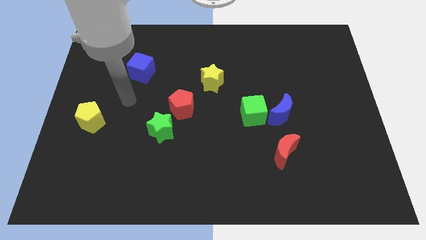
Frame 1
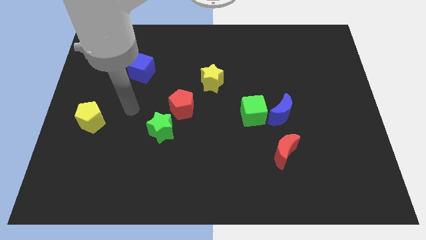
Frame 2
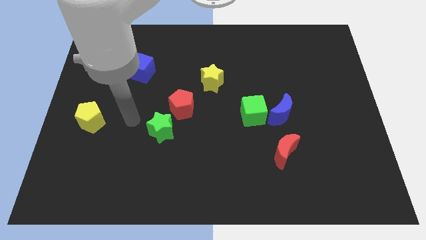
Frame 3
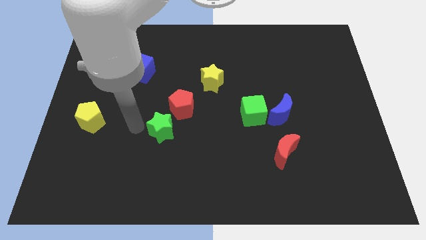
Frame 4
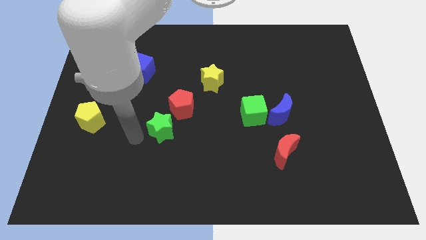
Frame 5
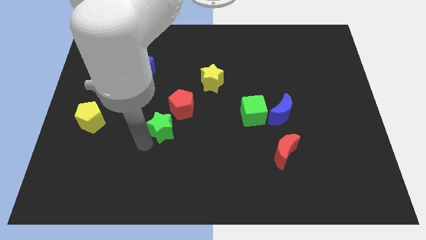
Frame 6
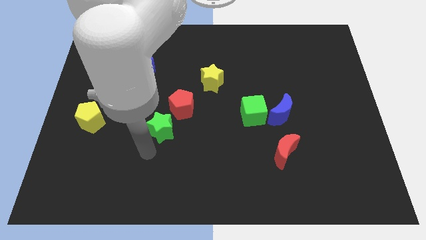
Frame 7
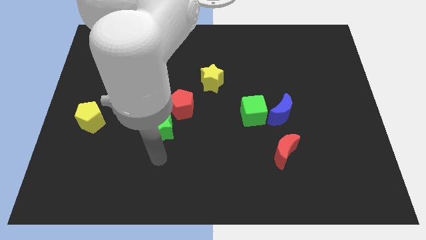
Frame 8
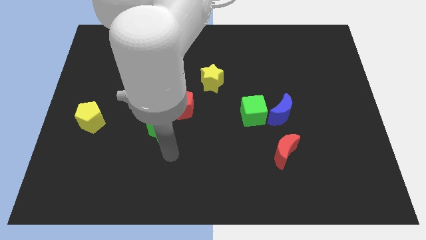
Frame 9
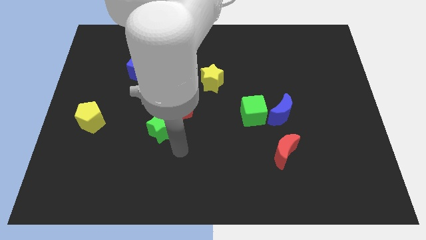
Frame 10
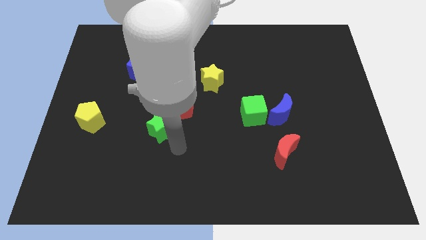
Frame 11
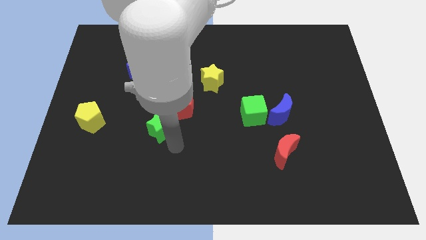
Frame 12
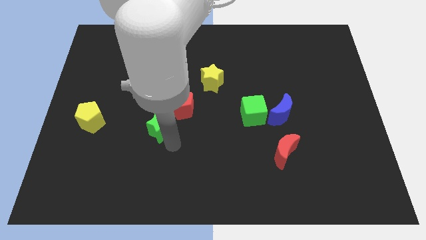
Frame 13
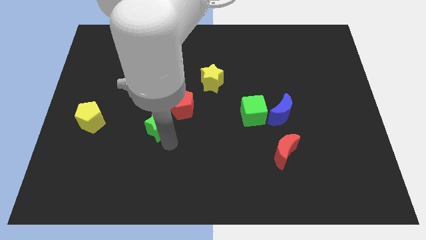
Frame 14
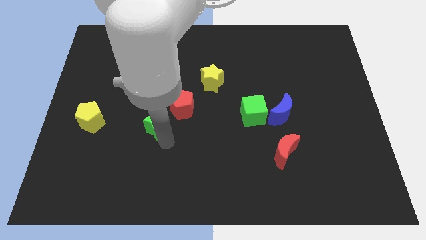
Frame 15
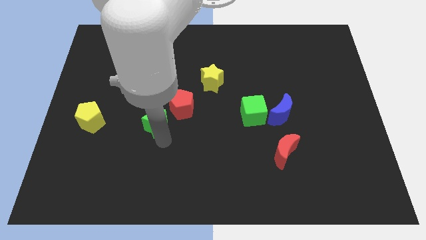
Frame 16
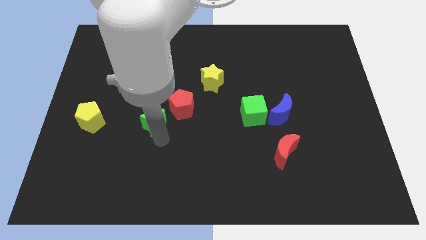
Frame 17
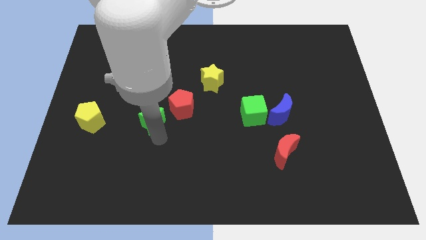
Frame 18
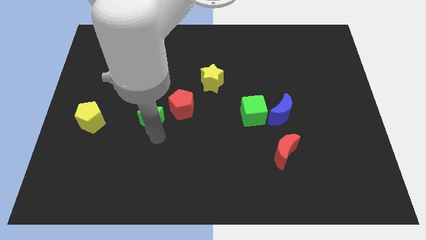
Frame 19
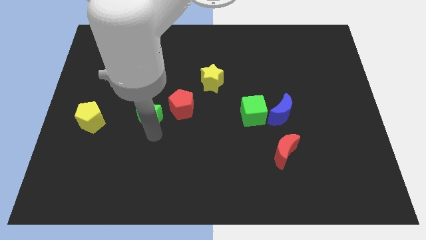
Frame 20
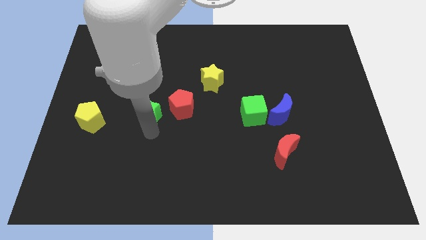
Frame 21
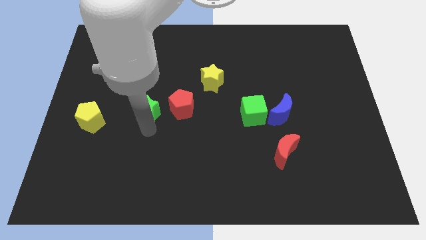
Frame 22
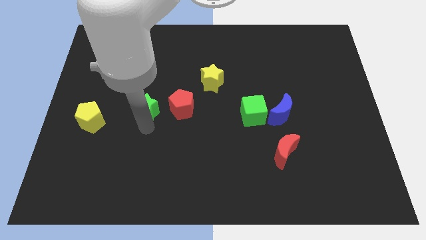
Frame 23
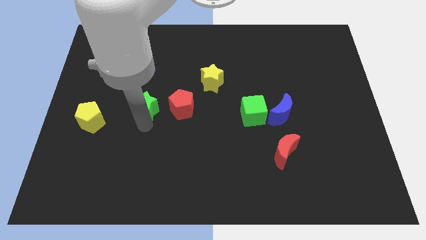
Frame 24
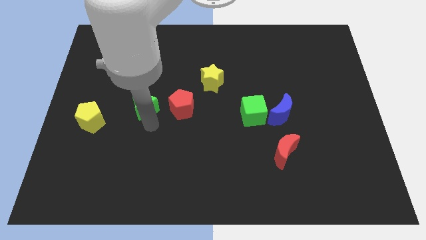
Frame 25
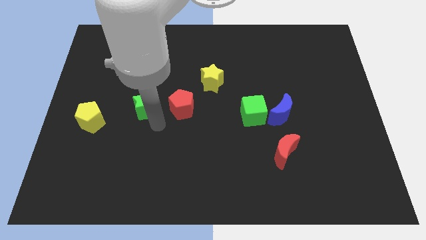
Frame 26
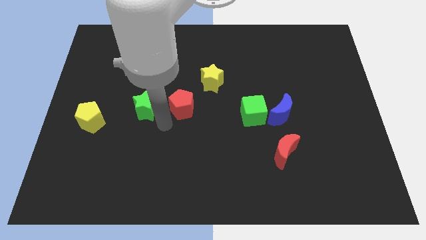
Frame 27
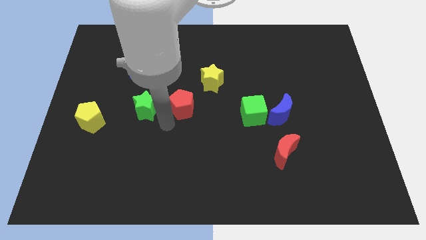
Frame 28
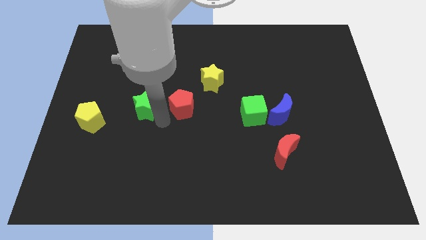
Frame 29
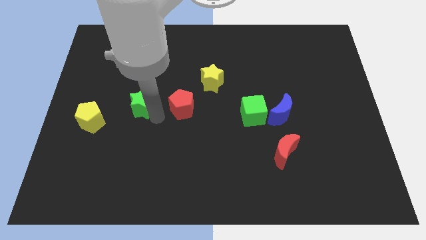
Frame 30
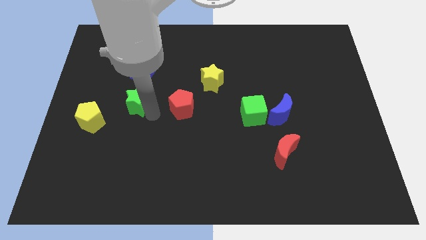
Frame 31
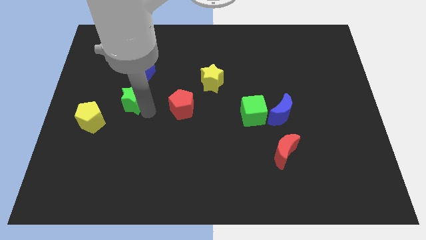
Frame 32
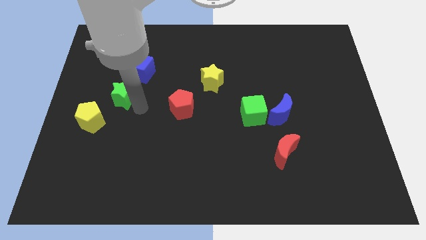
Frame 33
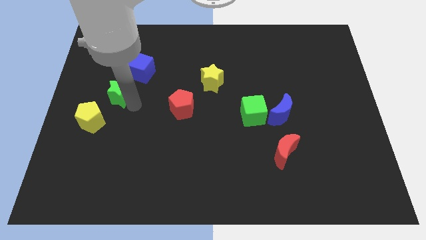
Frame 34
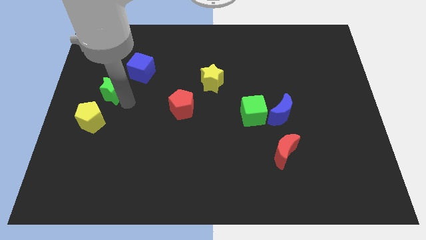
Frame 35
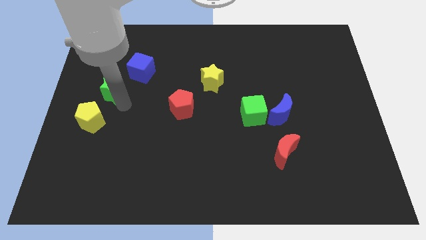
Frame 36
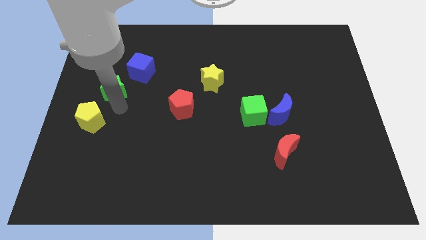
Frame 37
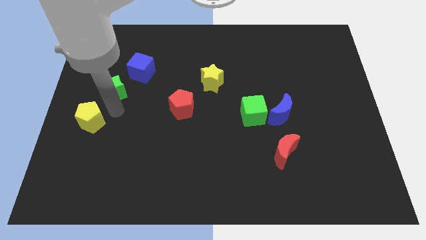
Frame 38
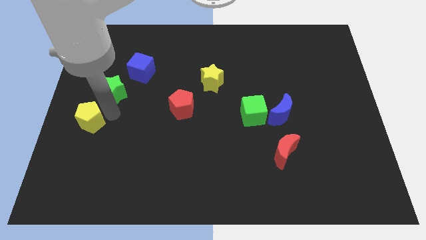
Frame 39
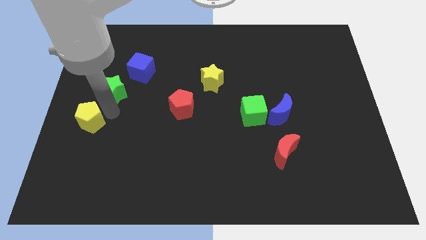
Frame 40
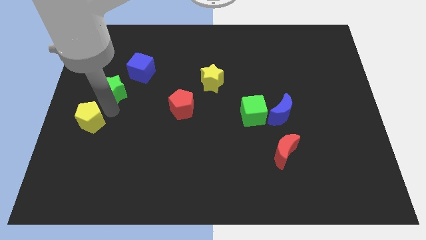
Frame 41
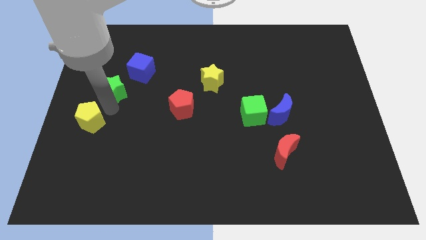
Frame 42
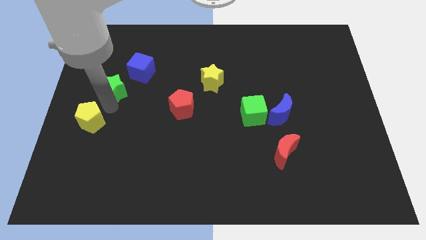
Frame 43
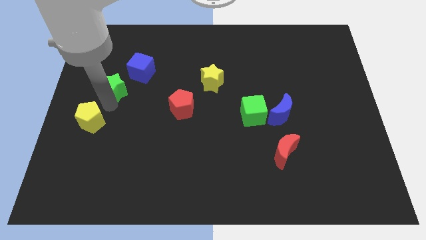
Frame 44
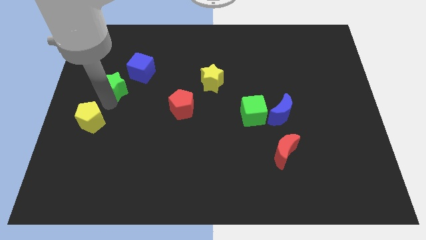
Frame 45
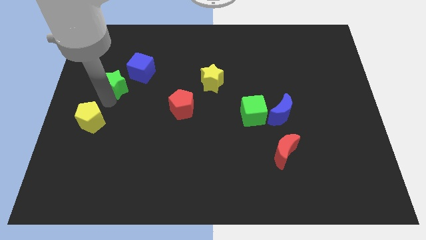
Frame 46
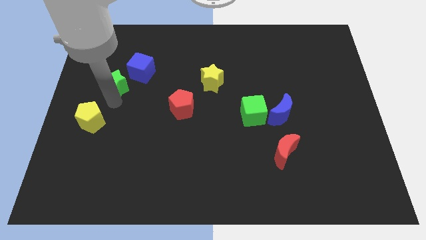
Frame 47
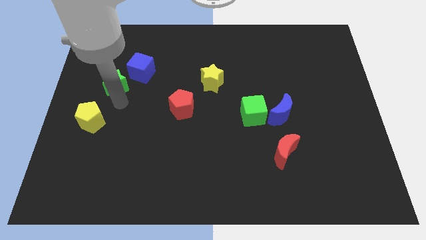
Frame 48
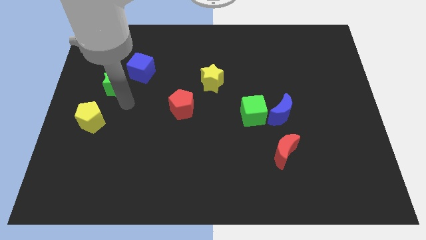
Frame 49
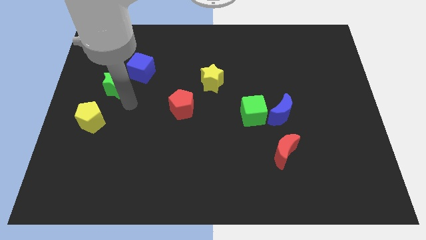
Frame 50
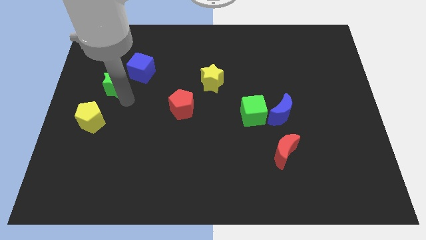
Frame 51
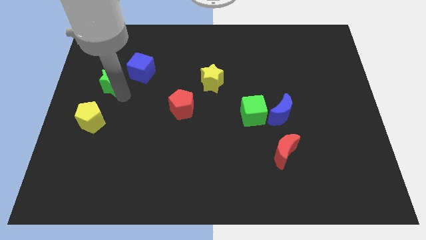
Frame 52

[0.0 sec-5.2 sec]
slide the green star to the left of the blue cube

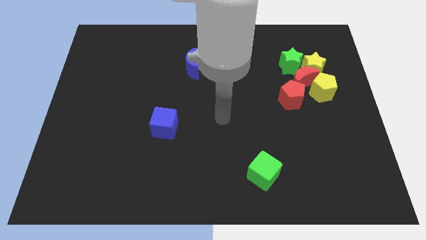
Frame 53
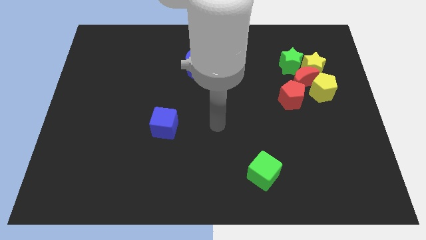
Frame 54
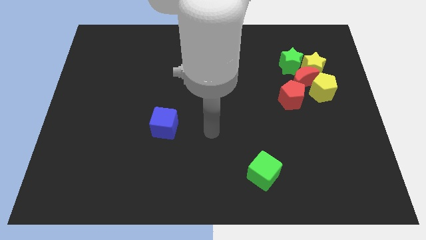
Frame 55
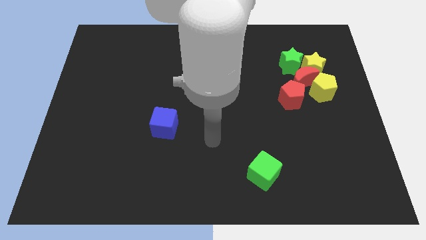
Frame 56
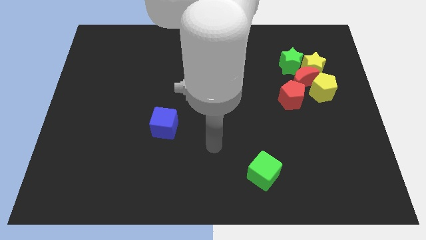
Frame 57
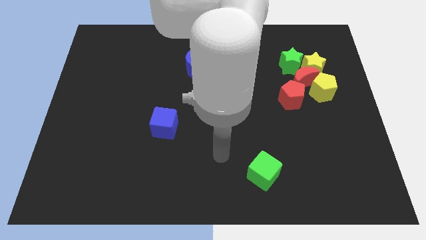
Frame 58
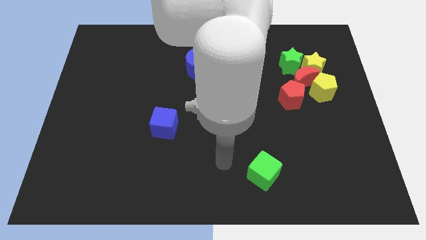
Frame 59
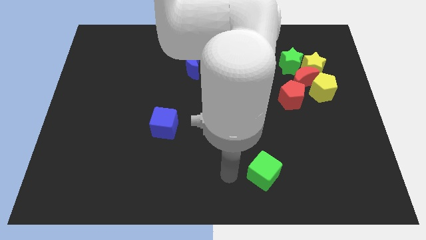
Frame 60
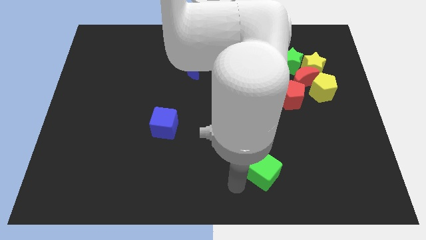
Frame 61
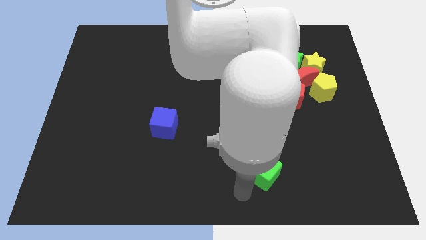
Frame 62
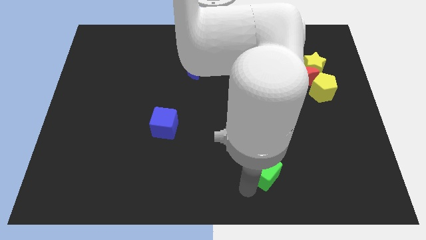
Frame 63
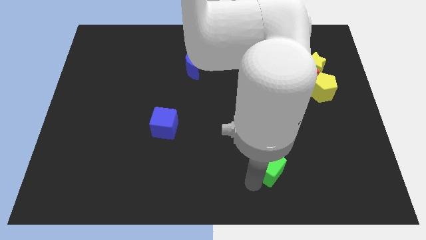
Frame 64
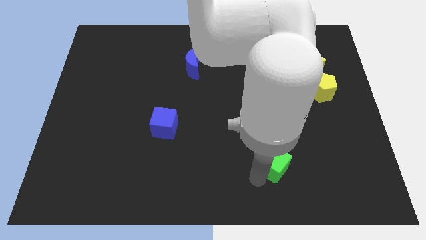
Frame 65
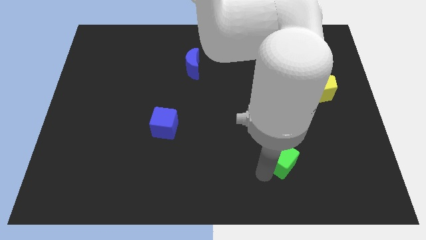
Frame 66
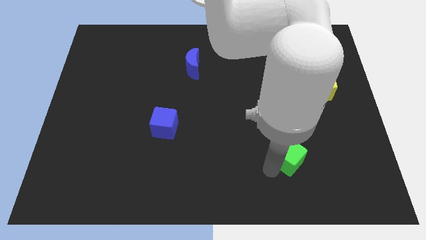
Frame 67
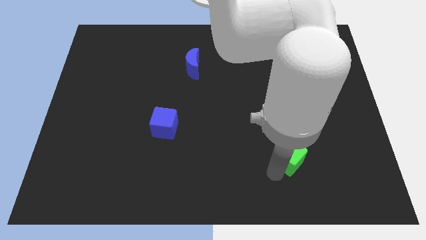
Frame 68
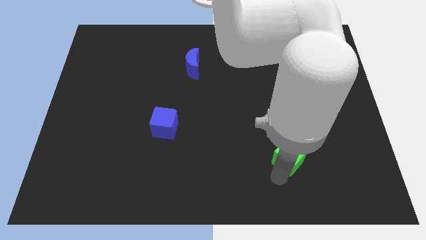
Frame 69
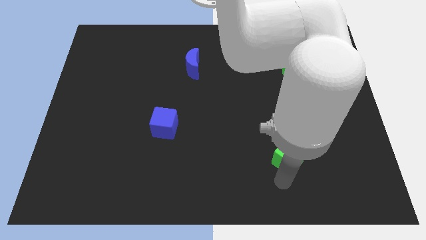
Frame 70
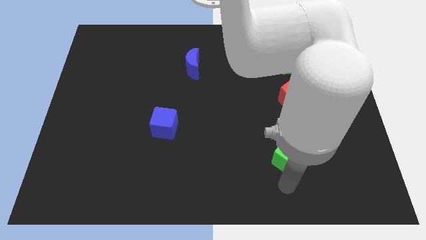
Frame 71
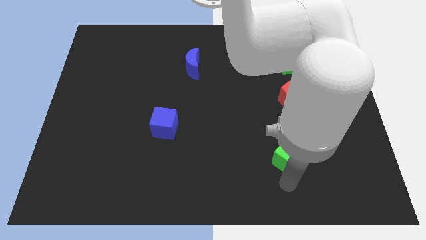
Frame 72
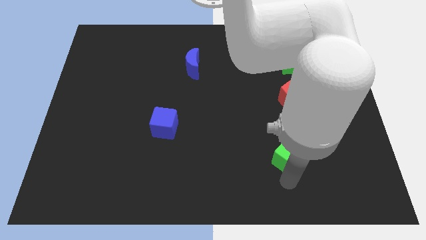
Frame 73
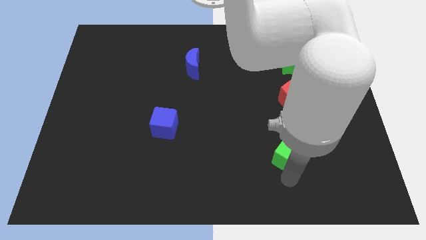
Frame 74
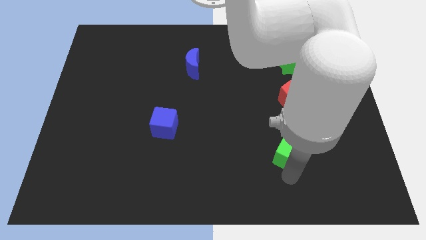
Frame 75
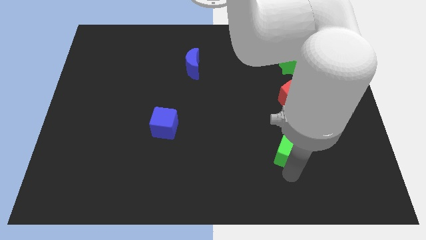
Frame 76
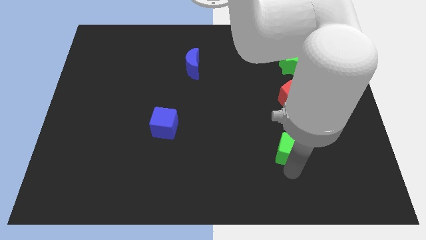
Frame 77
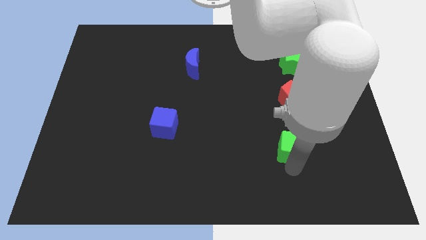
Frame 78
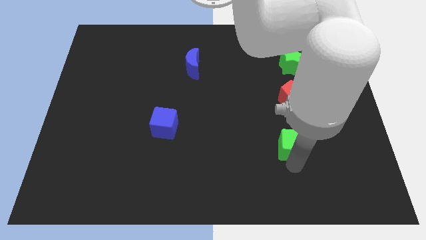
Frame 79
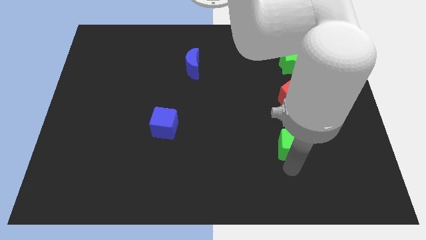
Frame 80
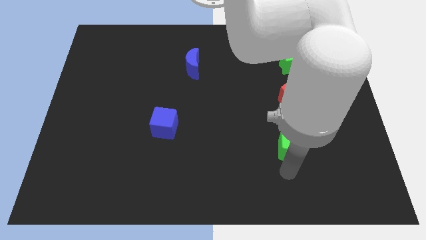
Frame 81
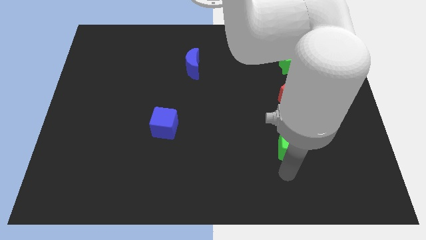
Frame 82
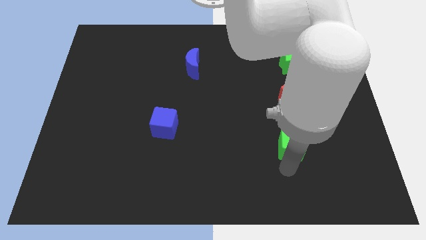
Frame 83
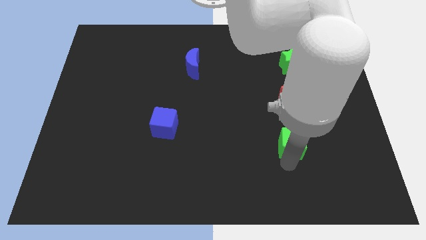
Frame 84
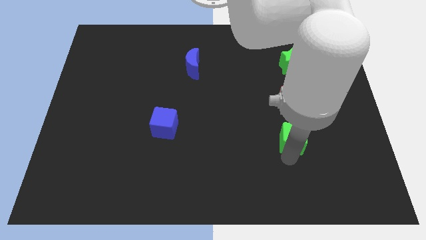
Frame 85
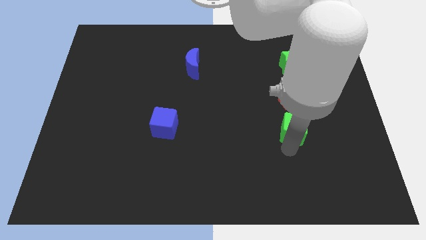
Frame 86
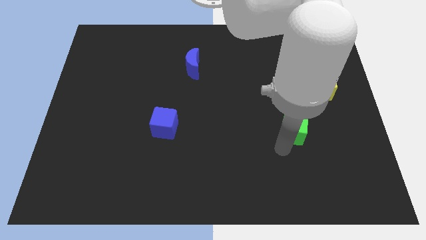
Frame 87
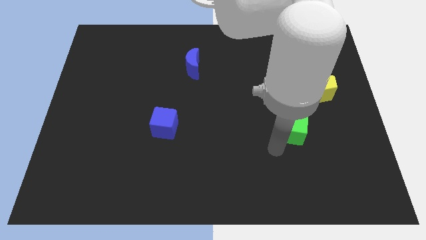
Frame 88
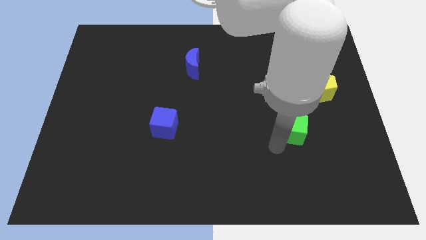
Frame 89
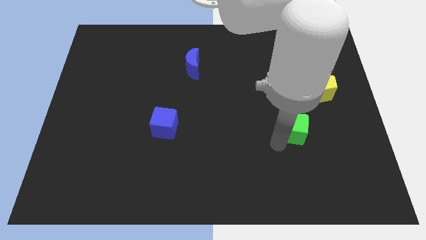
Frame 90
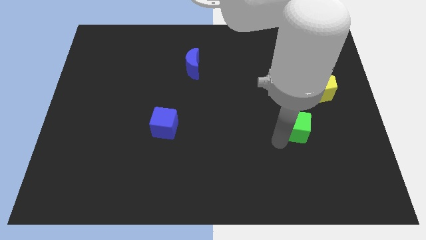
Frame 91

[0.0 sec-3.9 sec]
slide the green cube to the bottom of the red moon
